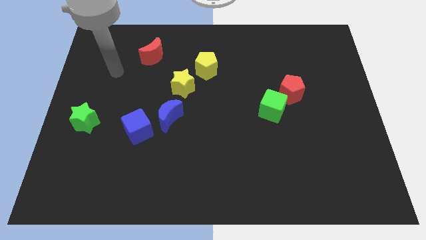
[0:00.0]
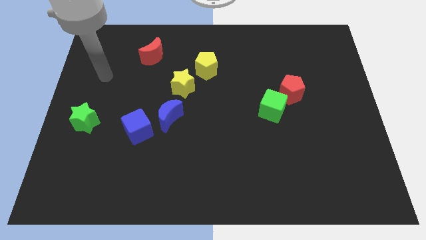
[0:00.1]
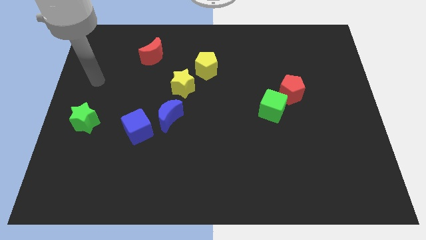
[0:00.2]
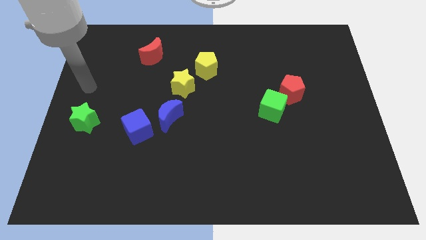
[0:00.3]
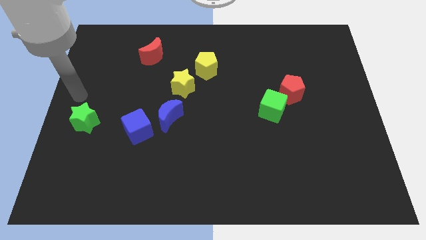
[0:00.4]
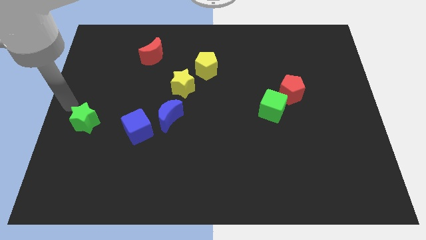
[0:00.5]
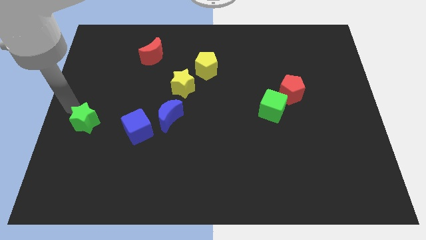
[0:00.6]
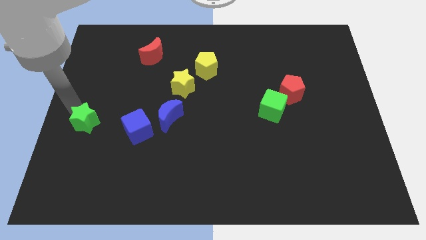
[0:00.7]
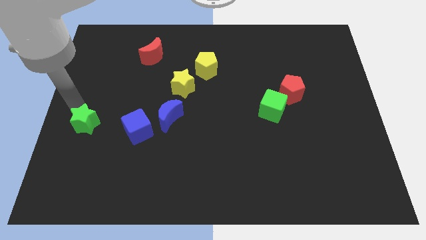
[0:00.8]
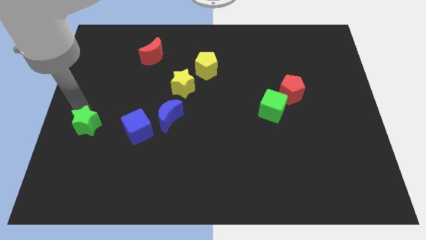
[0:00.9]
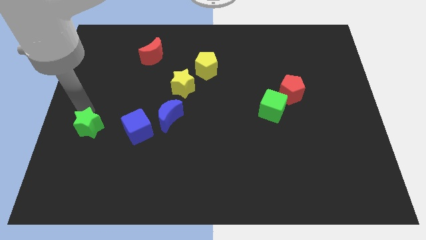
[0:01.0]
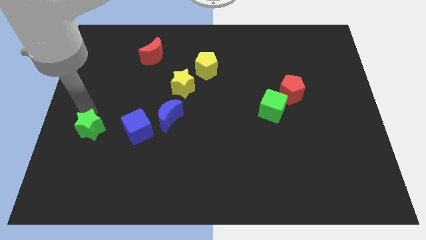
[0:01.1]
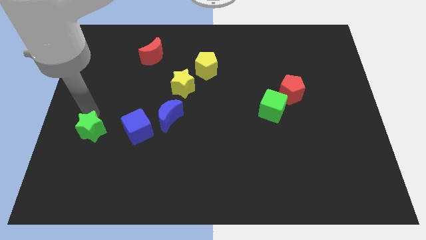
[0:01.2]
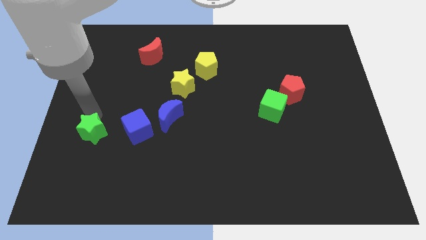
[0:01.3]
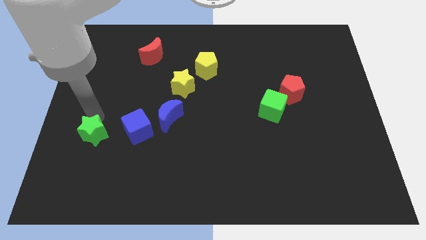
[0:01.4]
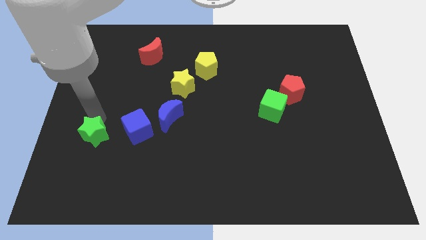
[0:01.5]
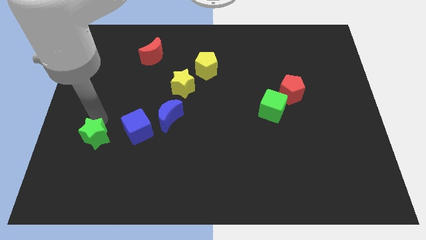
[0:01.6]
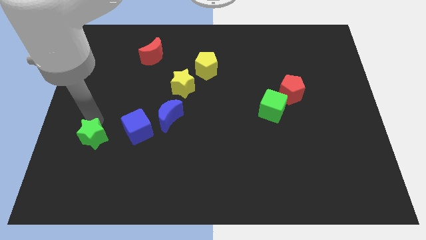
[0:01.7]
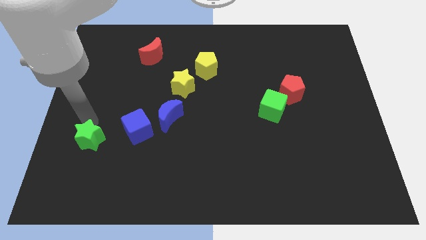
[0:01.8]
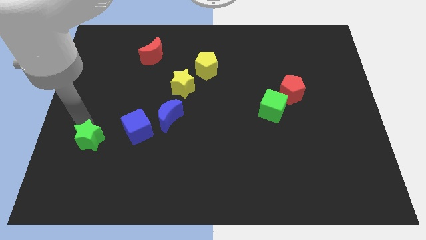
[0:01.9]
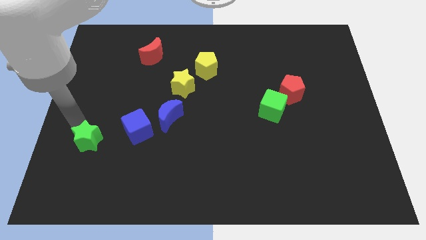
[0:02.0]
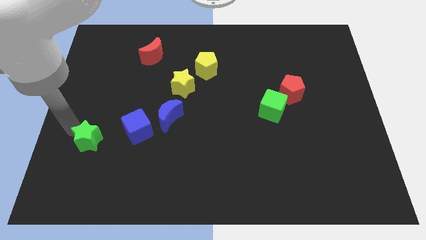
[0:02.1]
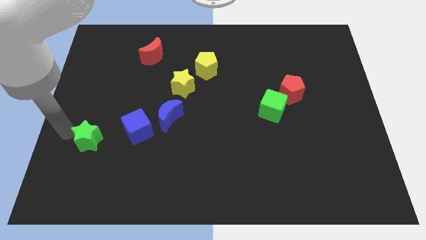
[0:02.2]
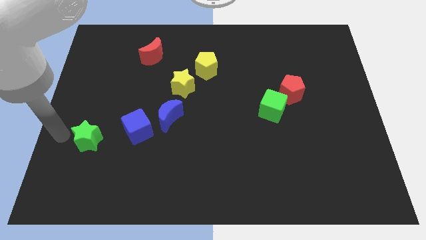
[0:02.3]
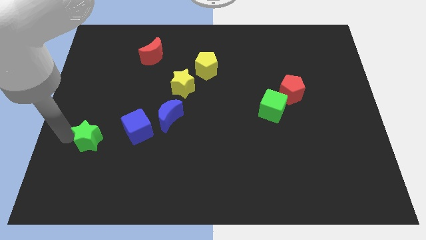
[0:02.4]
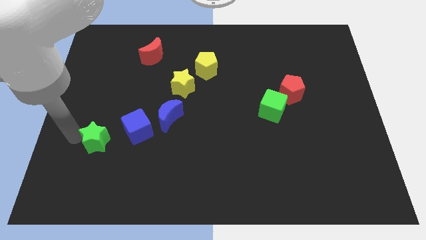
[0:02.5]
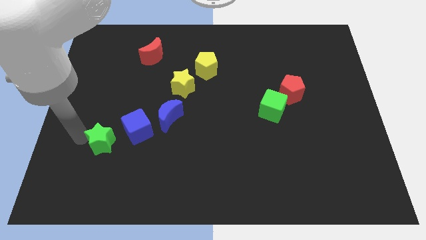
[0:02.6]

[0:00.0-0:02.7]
move the green star down and to the right a bit

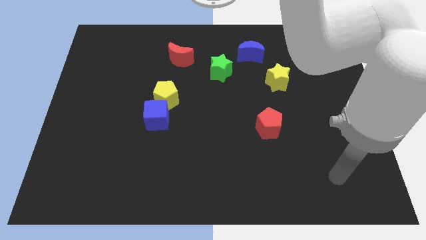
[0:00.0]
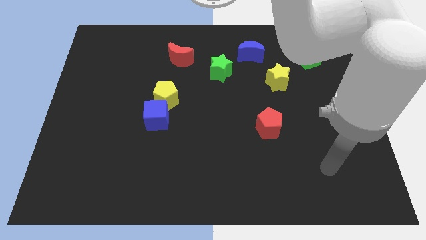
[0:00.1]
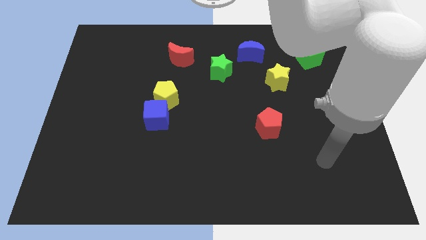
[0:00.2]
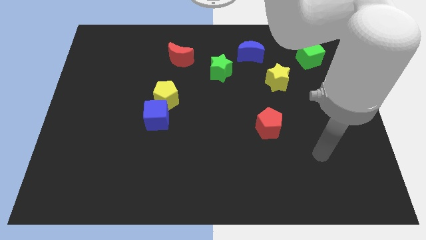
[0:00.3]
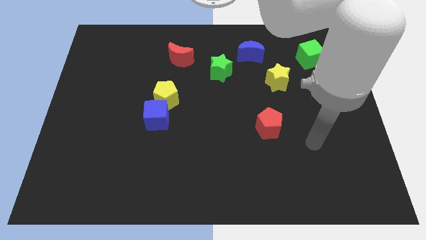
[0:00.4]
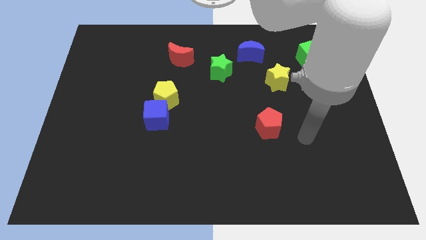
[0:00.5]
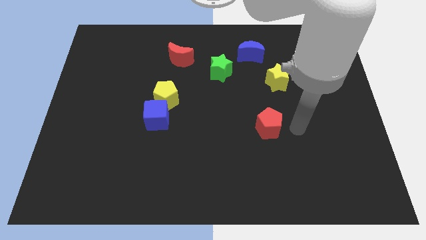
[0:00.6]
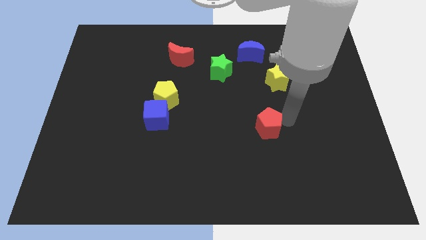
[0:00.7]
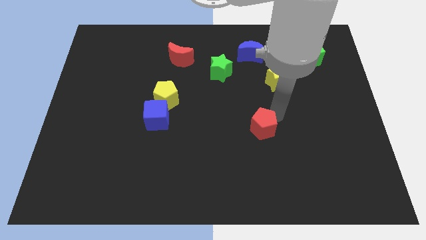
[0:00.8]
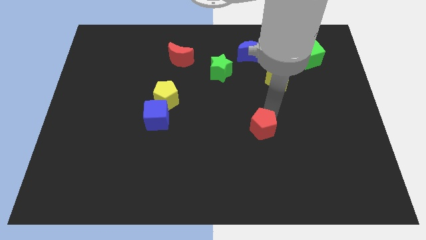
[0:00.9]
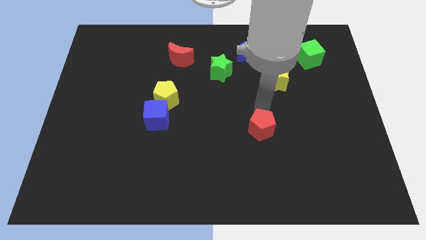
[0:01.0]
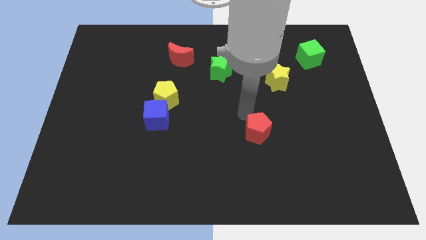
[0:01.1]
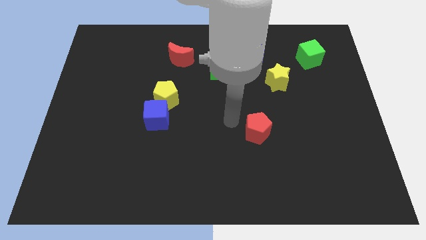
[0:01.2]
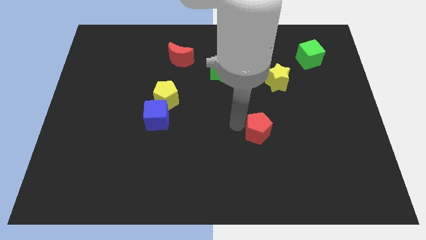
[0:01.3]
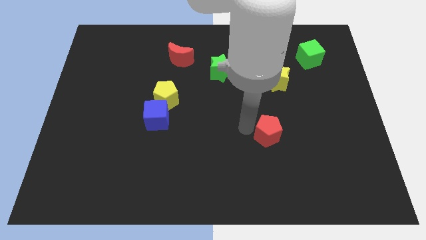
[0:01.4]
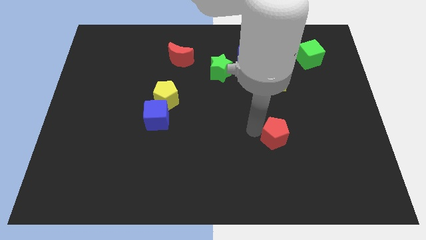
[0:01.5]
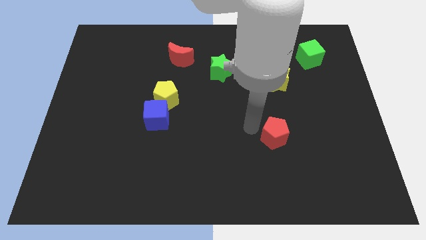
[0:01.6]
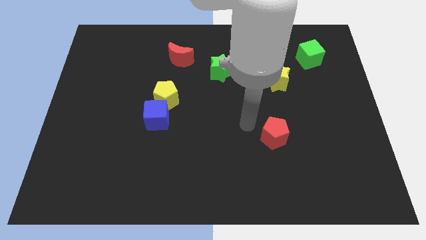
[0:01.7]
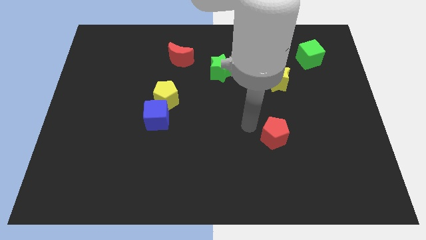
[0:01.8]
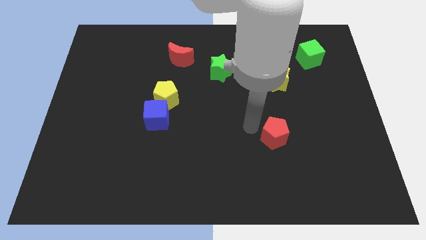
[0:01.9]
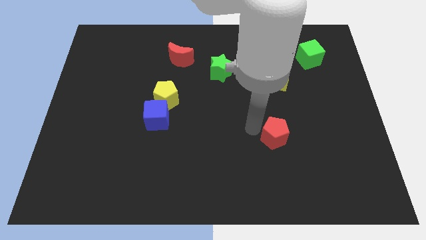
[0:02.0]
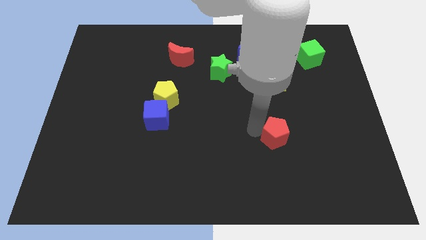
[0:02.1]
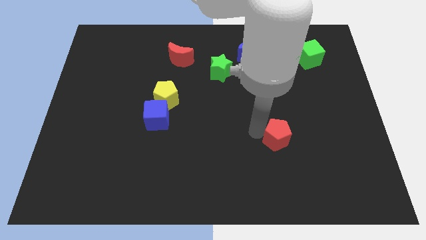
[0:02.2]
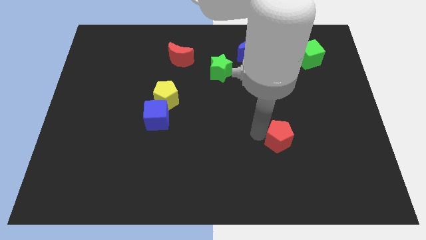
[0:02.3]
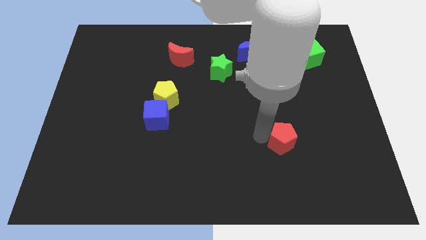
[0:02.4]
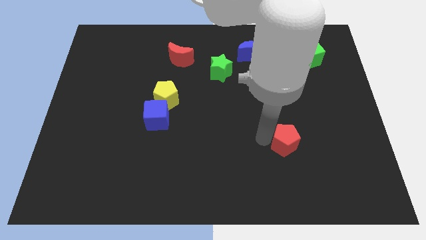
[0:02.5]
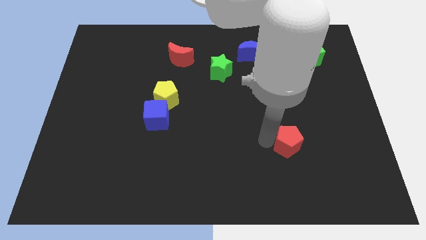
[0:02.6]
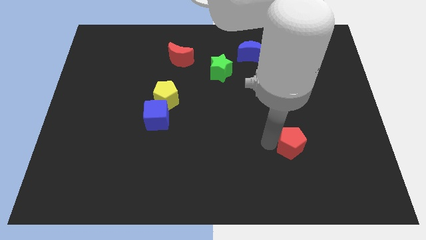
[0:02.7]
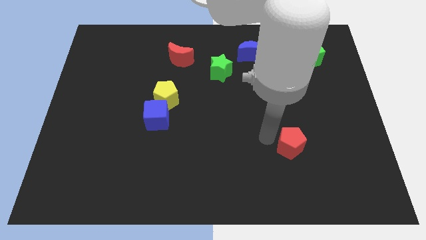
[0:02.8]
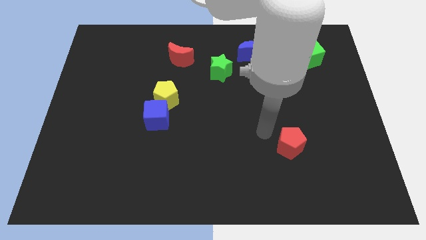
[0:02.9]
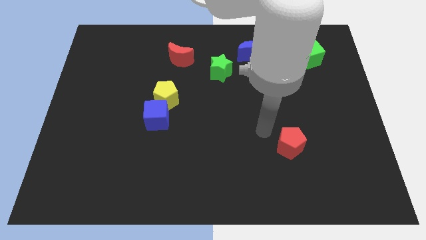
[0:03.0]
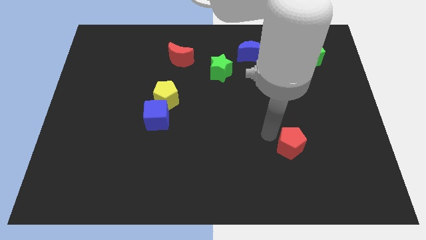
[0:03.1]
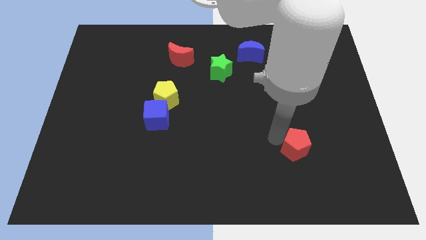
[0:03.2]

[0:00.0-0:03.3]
slightly push the red pentagon diagonally downwards and to the right

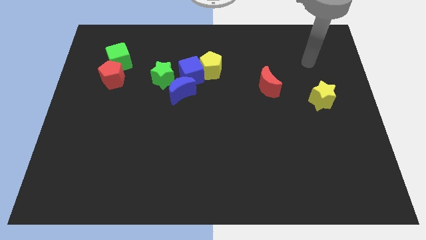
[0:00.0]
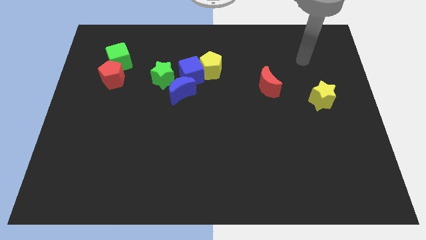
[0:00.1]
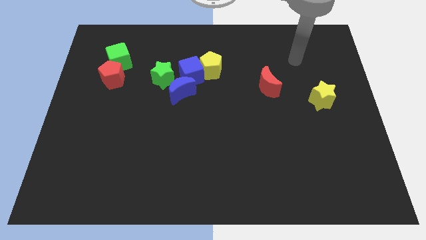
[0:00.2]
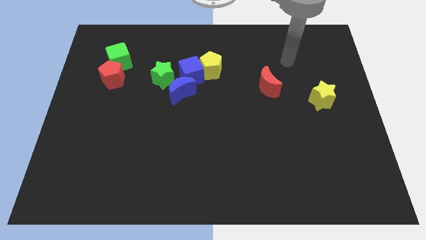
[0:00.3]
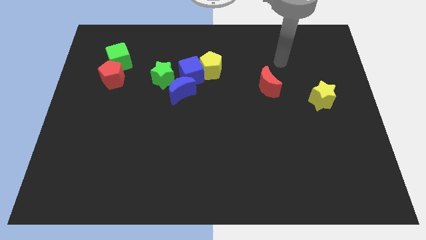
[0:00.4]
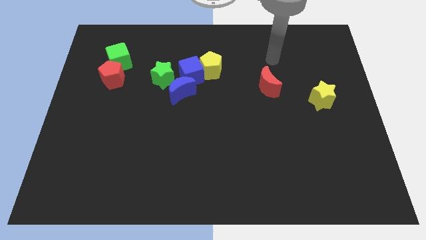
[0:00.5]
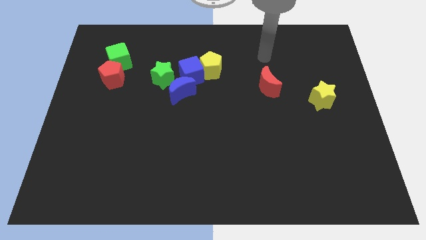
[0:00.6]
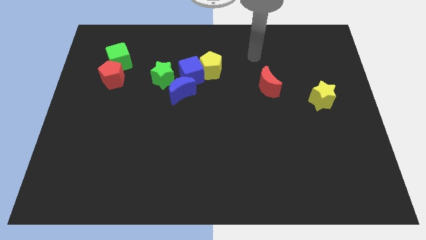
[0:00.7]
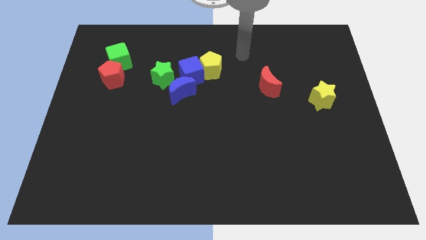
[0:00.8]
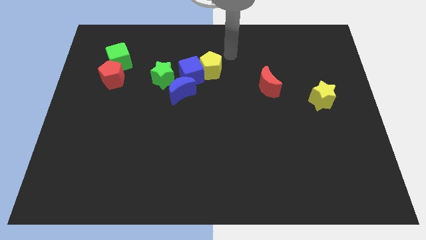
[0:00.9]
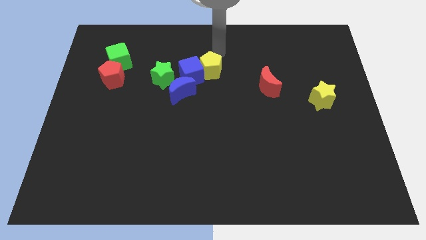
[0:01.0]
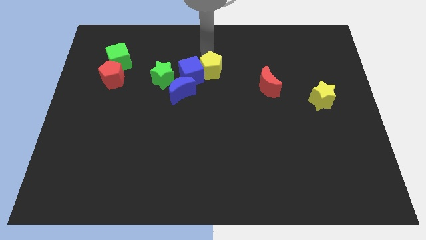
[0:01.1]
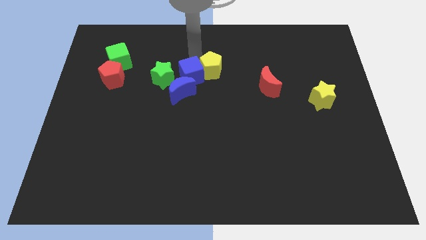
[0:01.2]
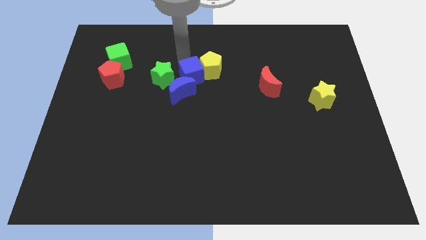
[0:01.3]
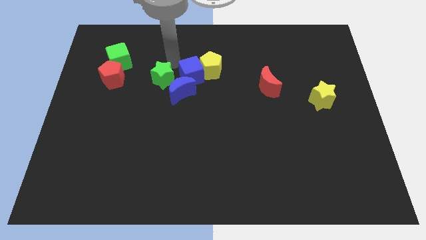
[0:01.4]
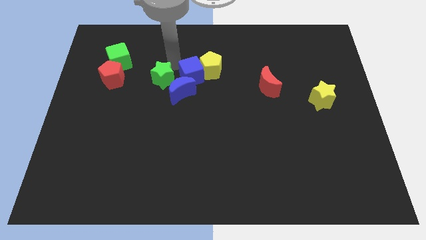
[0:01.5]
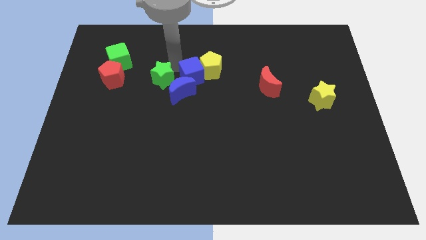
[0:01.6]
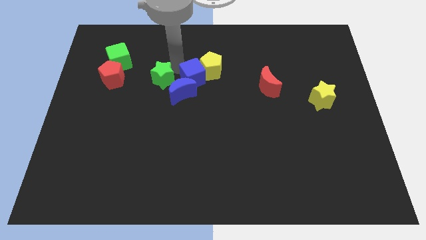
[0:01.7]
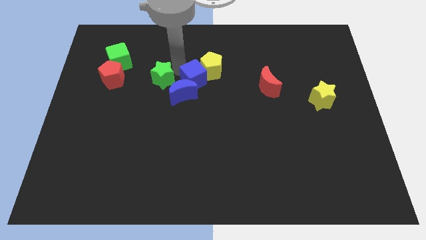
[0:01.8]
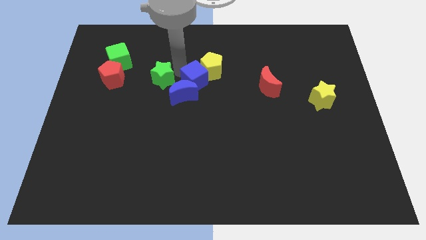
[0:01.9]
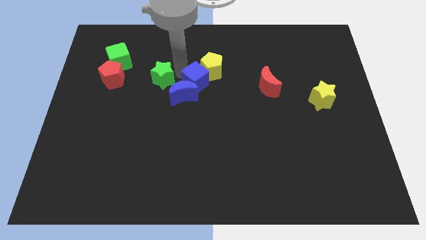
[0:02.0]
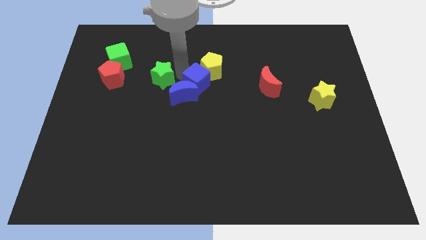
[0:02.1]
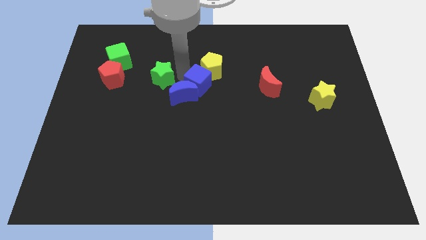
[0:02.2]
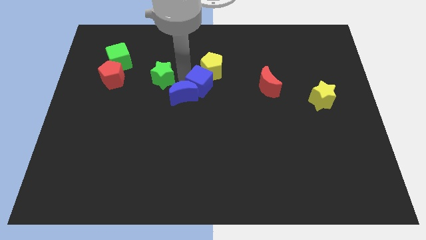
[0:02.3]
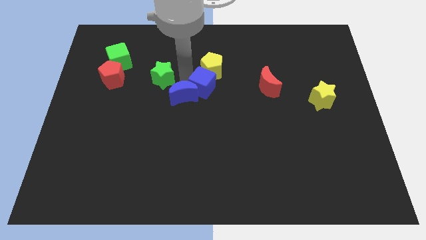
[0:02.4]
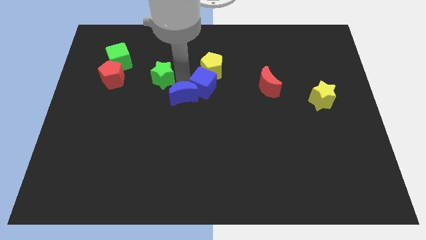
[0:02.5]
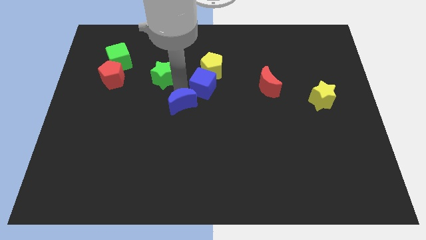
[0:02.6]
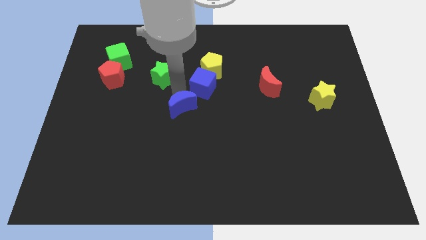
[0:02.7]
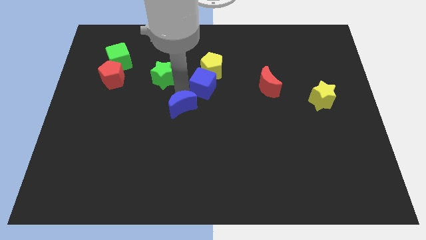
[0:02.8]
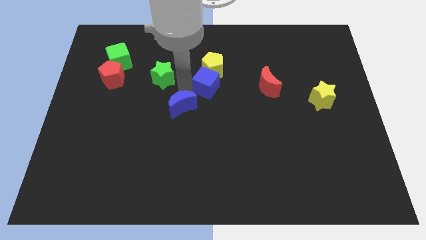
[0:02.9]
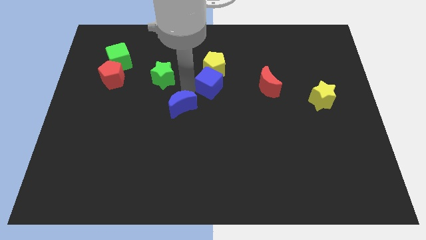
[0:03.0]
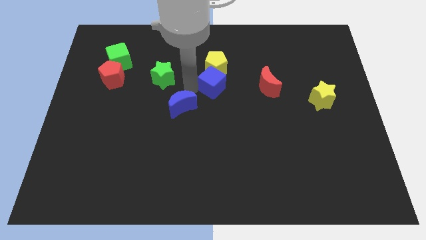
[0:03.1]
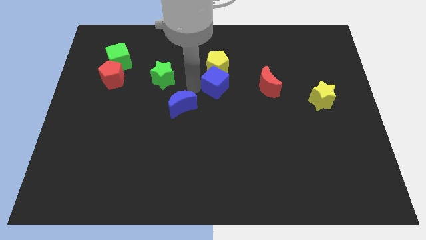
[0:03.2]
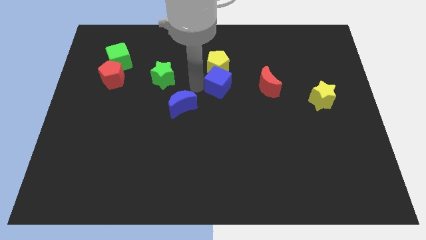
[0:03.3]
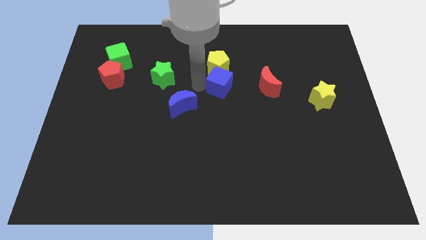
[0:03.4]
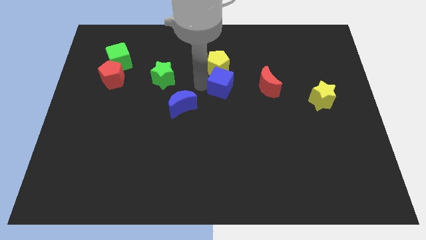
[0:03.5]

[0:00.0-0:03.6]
push the blue cube right slightly
